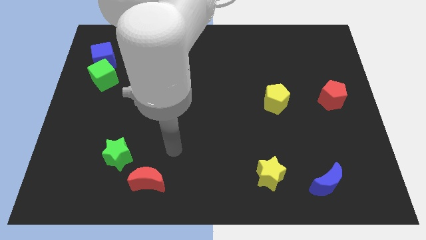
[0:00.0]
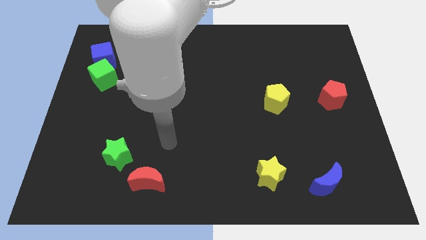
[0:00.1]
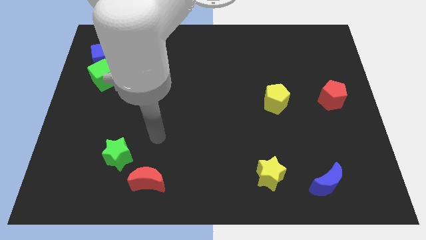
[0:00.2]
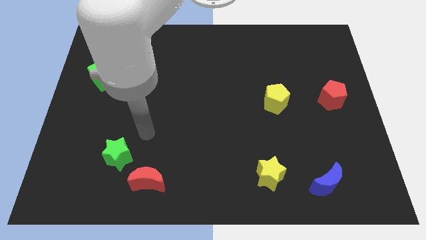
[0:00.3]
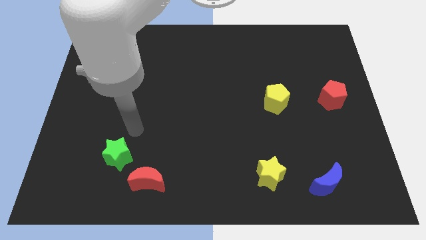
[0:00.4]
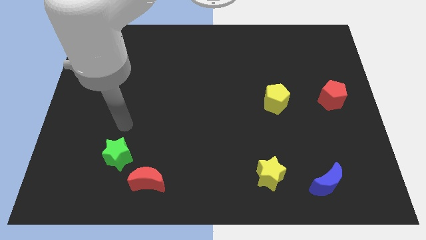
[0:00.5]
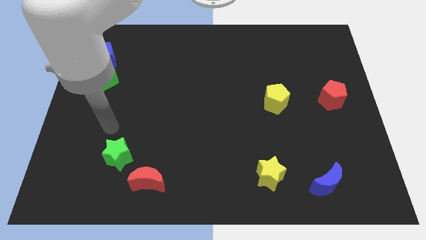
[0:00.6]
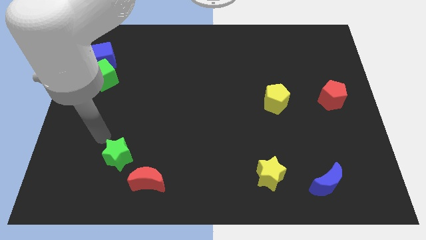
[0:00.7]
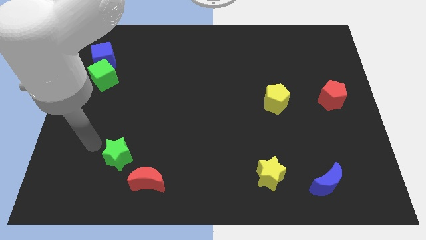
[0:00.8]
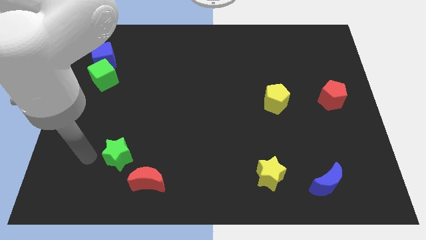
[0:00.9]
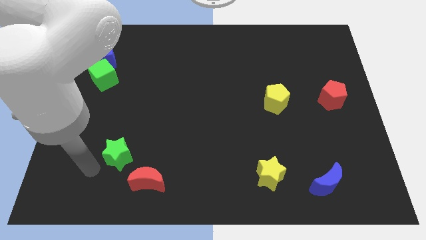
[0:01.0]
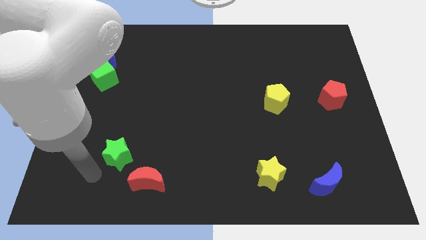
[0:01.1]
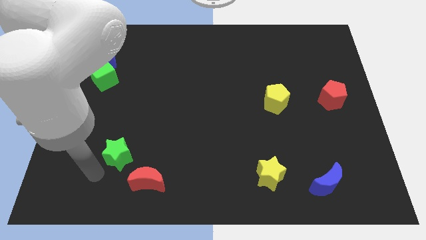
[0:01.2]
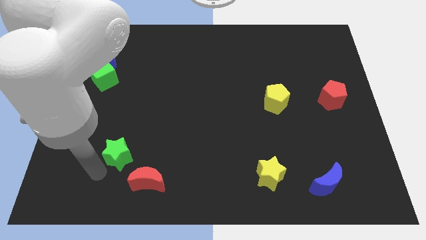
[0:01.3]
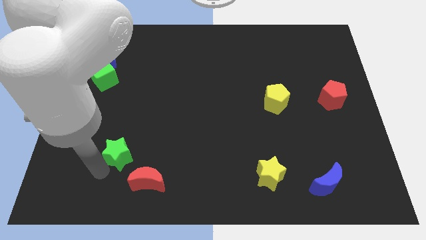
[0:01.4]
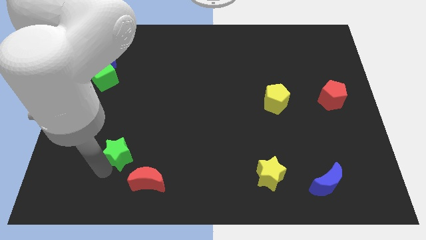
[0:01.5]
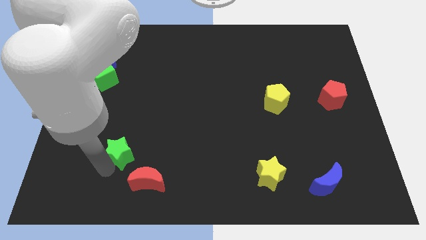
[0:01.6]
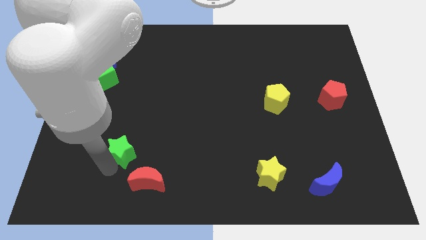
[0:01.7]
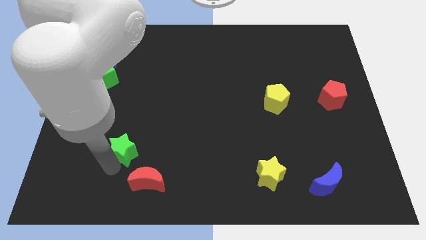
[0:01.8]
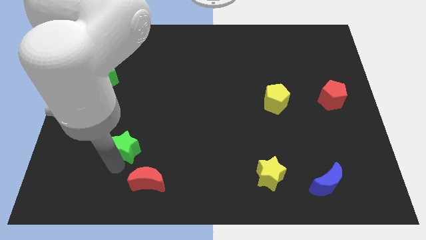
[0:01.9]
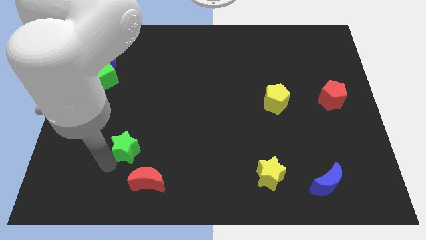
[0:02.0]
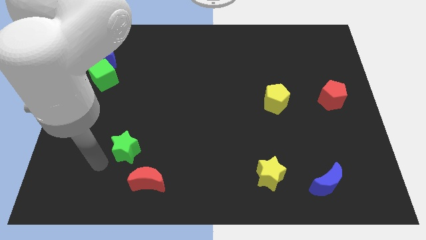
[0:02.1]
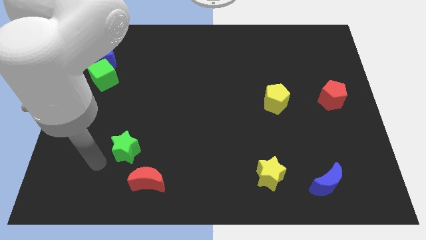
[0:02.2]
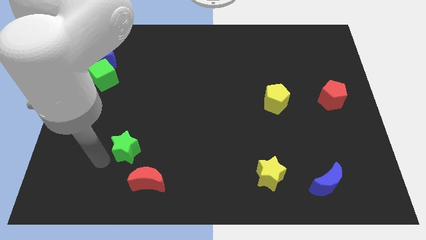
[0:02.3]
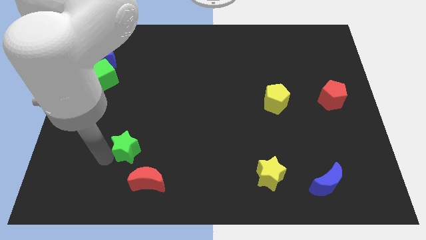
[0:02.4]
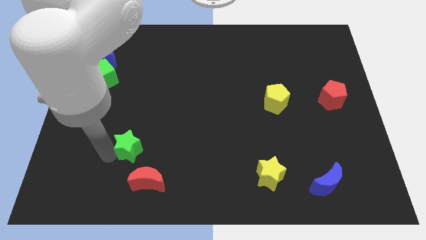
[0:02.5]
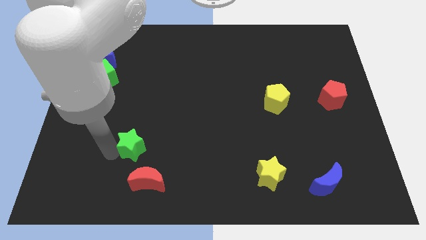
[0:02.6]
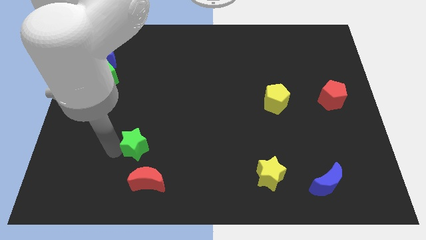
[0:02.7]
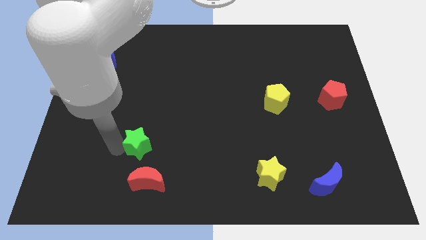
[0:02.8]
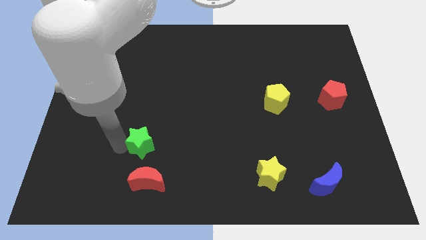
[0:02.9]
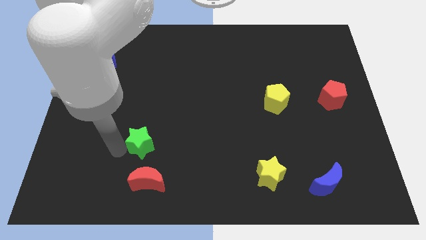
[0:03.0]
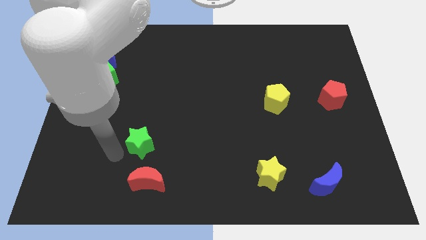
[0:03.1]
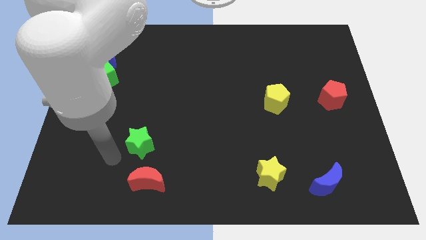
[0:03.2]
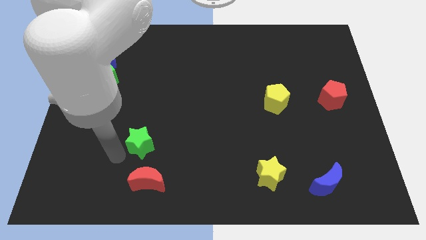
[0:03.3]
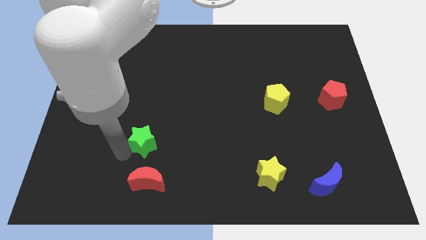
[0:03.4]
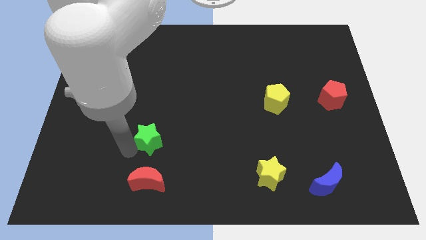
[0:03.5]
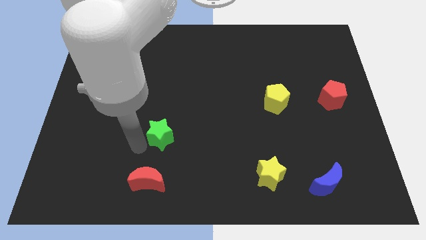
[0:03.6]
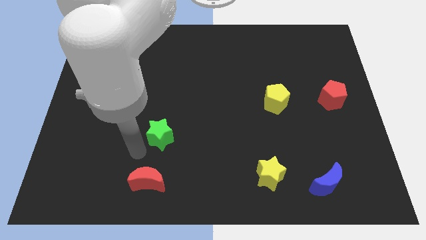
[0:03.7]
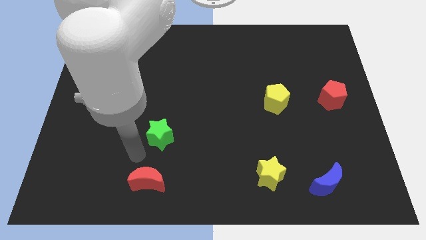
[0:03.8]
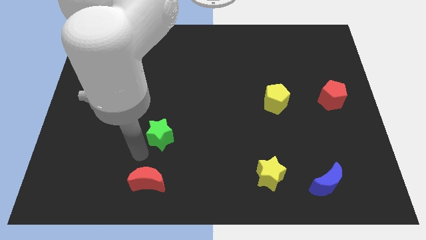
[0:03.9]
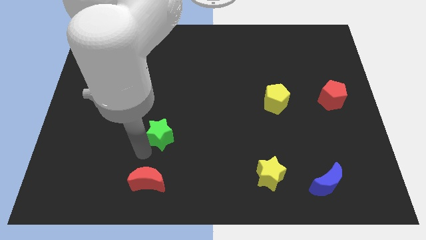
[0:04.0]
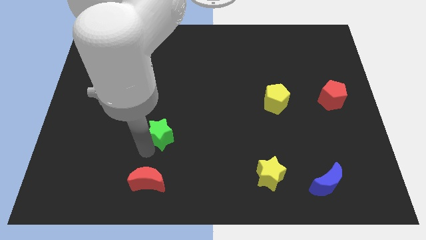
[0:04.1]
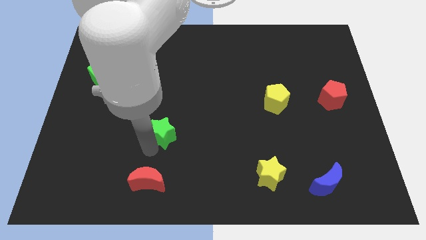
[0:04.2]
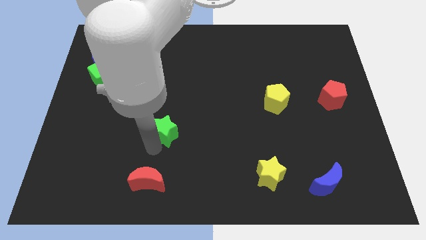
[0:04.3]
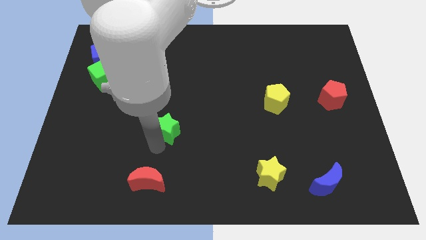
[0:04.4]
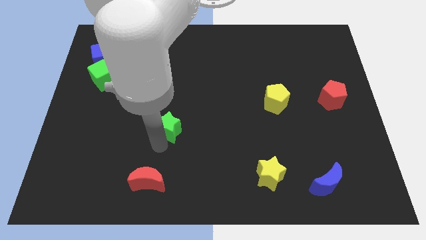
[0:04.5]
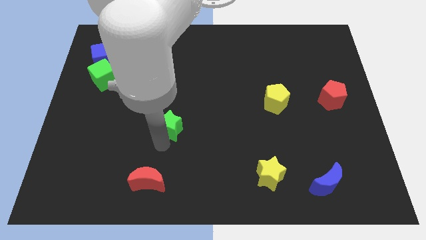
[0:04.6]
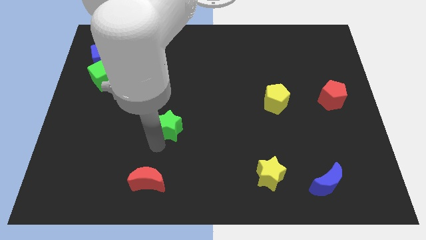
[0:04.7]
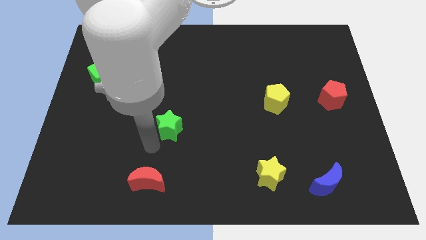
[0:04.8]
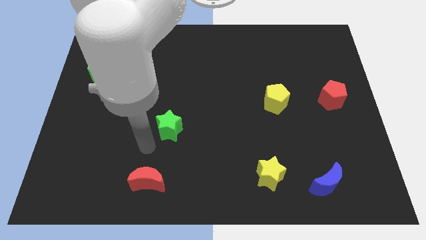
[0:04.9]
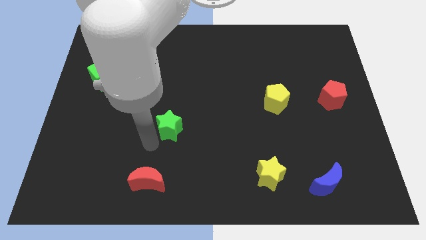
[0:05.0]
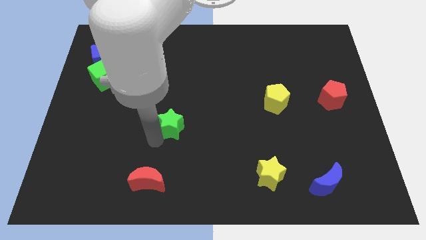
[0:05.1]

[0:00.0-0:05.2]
move the green star to the center

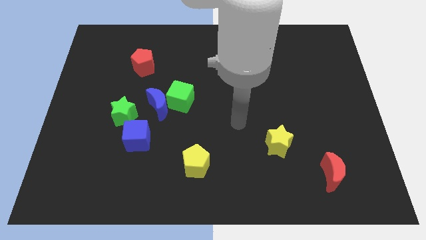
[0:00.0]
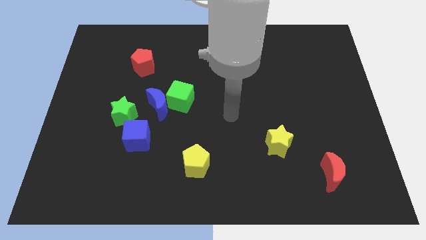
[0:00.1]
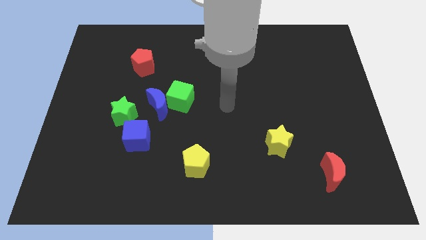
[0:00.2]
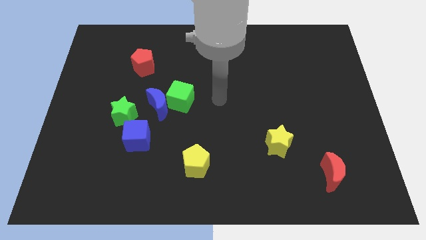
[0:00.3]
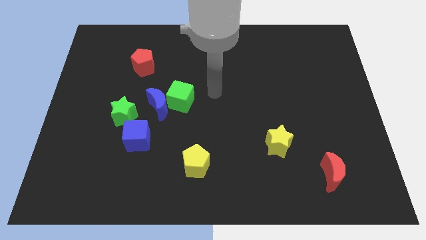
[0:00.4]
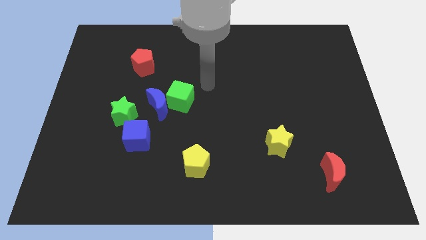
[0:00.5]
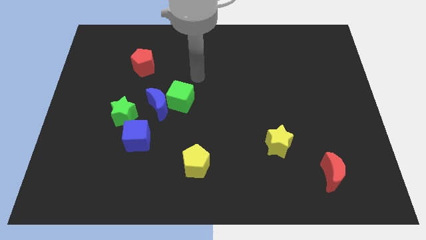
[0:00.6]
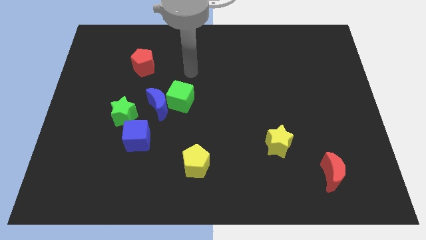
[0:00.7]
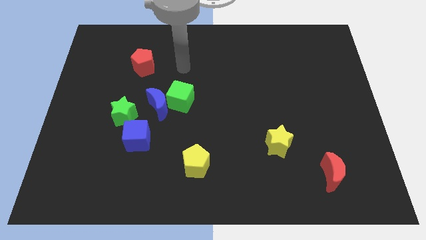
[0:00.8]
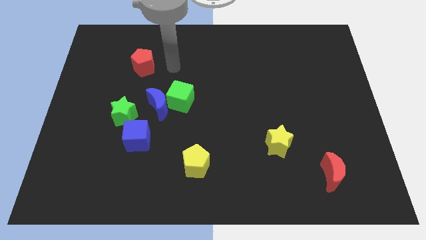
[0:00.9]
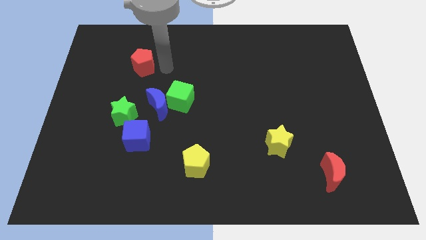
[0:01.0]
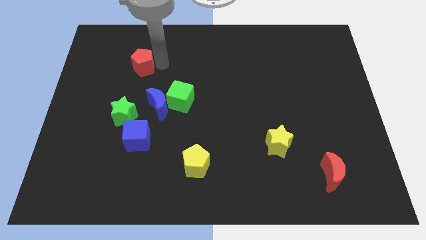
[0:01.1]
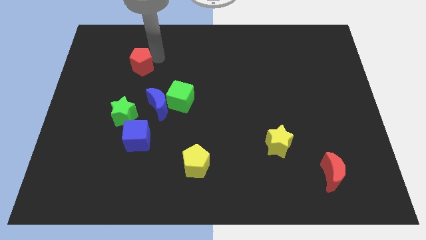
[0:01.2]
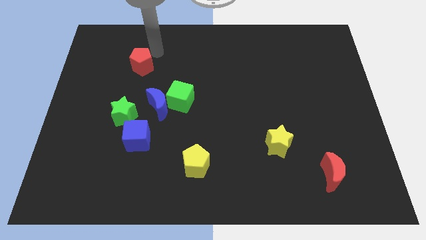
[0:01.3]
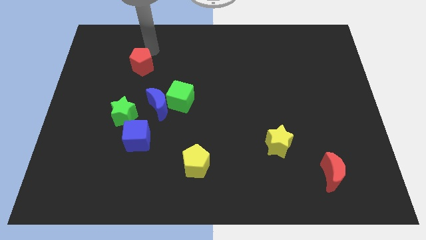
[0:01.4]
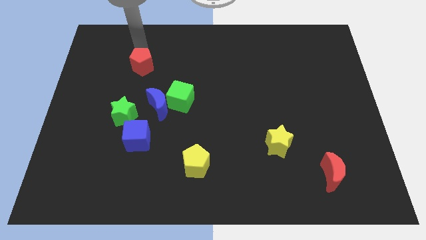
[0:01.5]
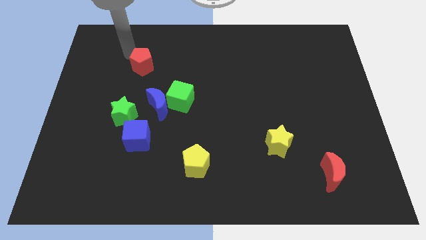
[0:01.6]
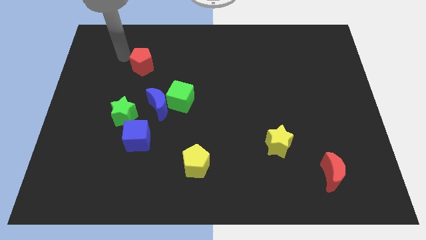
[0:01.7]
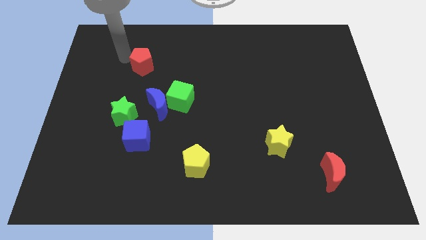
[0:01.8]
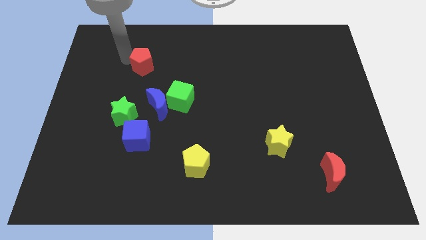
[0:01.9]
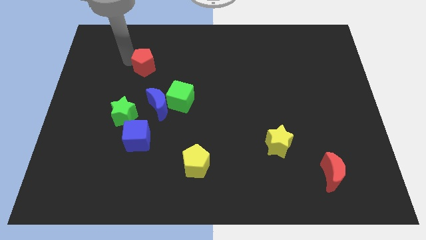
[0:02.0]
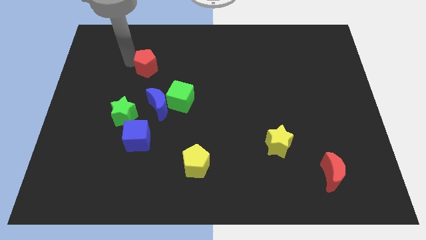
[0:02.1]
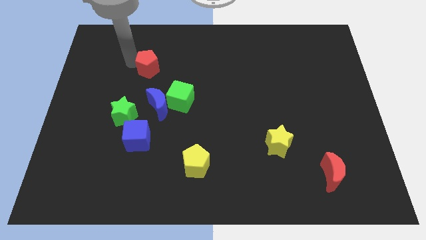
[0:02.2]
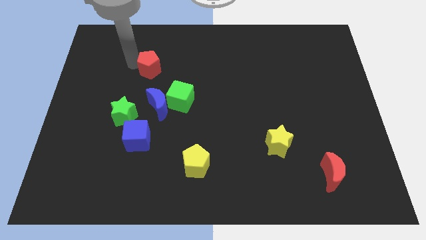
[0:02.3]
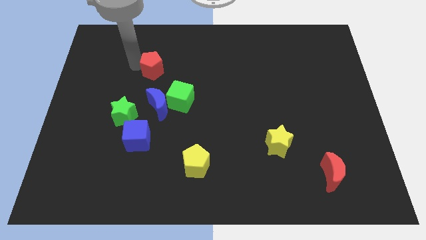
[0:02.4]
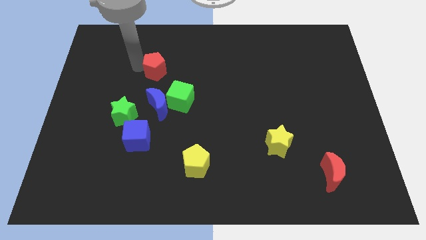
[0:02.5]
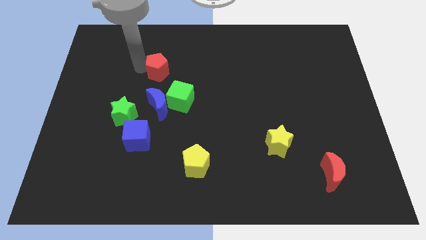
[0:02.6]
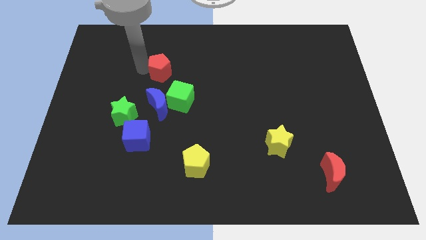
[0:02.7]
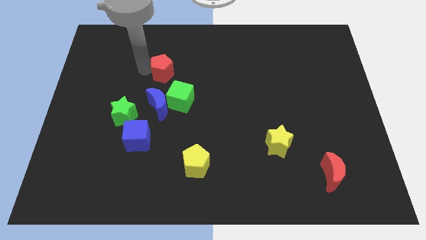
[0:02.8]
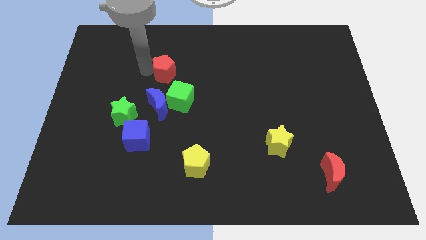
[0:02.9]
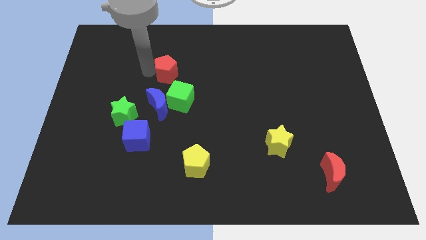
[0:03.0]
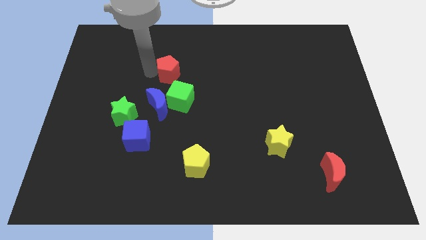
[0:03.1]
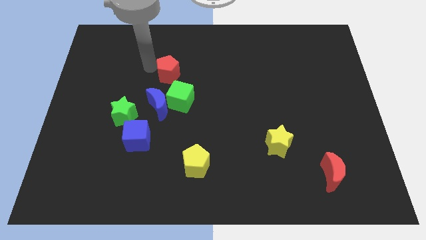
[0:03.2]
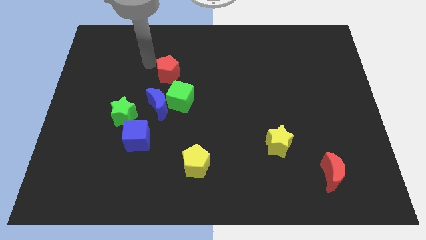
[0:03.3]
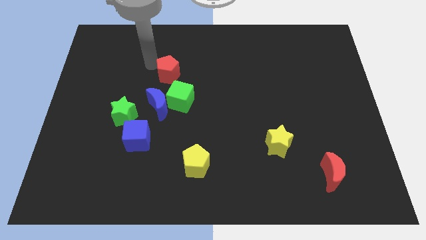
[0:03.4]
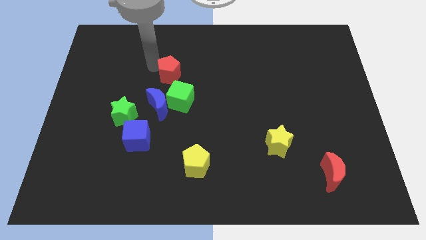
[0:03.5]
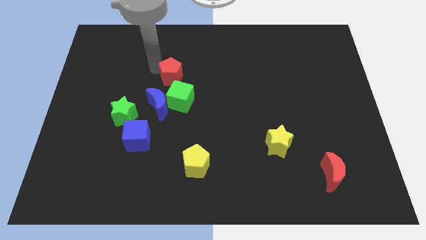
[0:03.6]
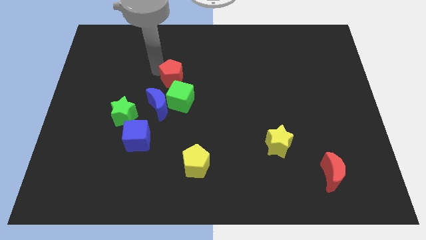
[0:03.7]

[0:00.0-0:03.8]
push the red pentagon to the middle of the board
